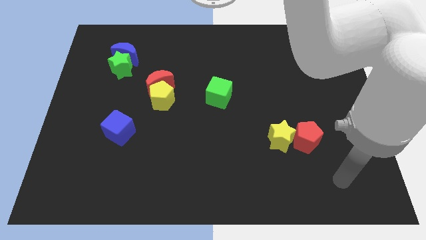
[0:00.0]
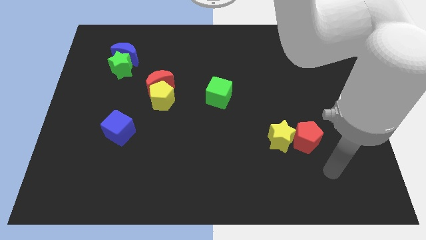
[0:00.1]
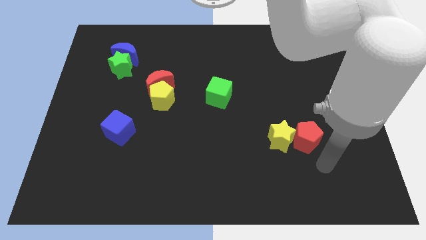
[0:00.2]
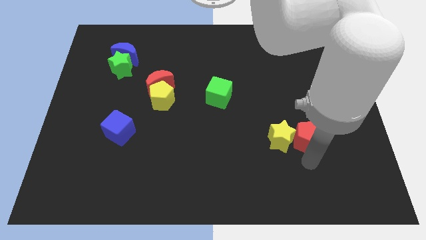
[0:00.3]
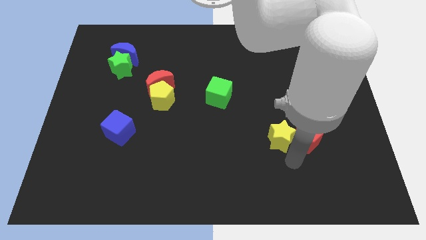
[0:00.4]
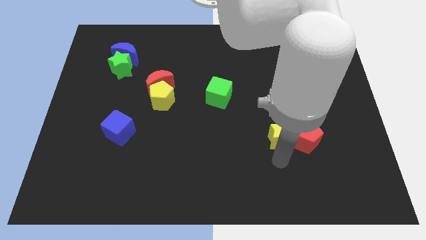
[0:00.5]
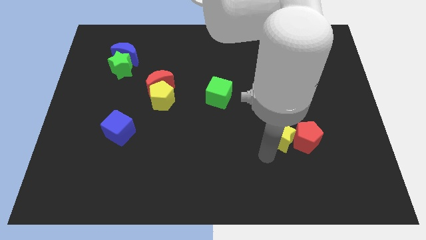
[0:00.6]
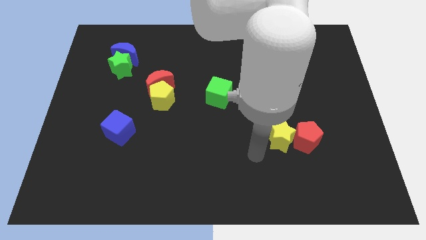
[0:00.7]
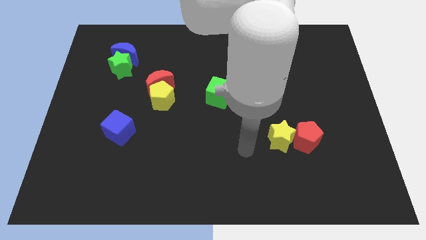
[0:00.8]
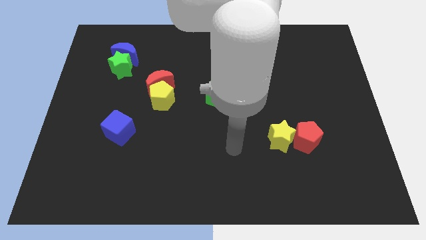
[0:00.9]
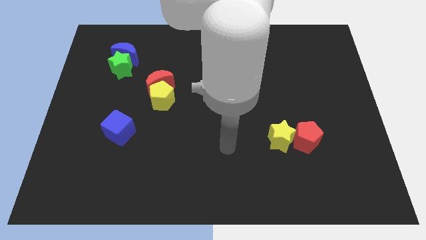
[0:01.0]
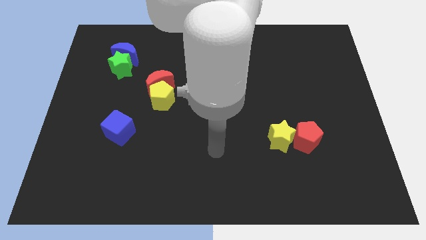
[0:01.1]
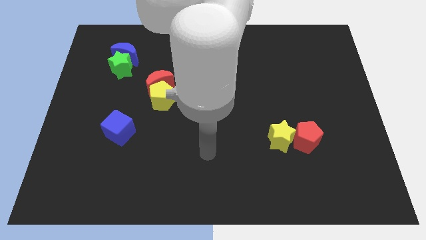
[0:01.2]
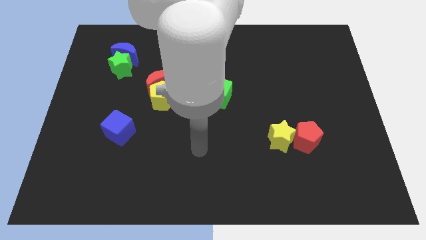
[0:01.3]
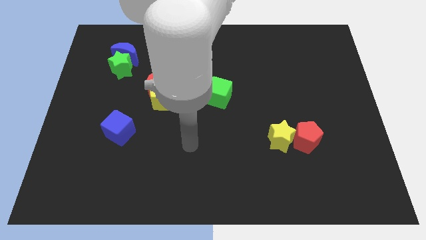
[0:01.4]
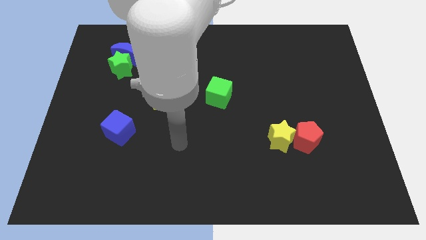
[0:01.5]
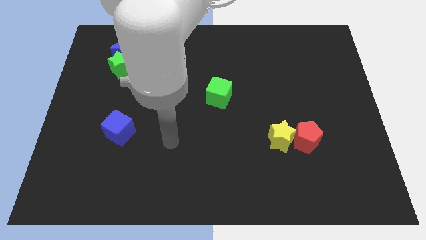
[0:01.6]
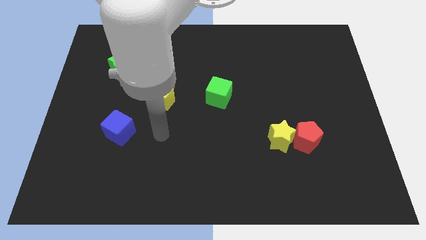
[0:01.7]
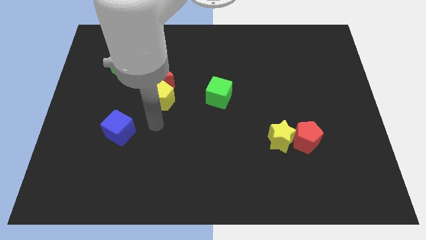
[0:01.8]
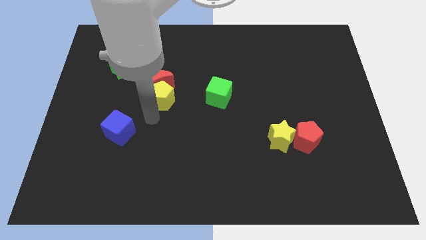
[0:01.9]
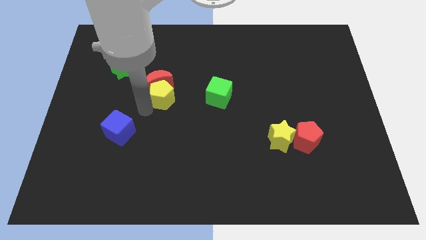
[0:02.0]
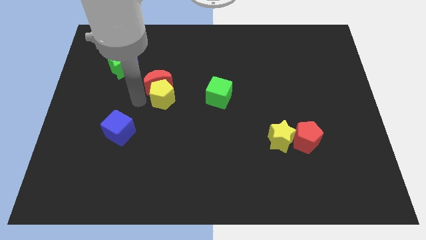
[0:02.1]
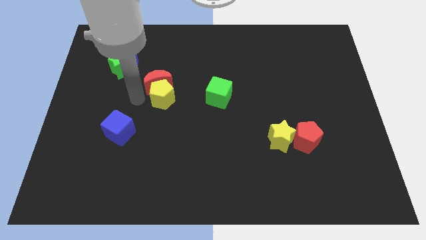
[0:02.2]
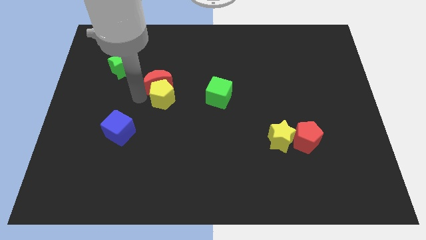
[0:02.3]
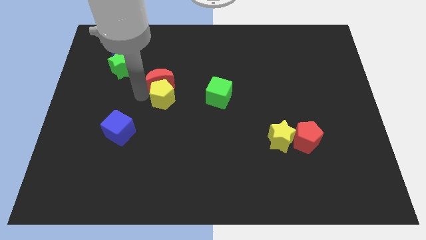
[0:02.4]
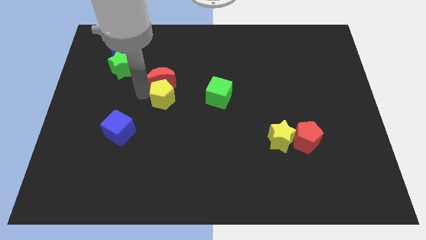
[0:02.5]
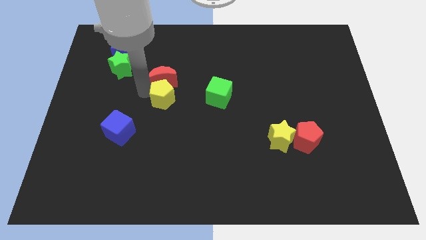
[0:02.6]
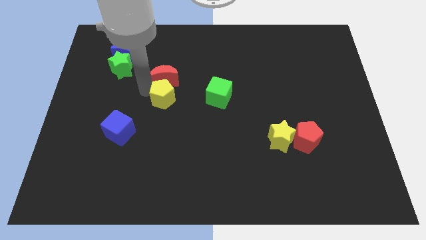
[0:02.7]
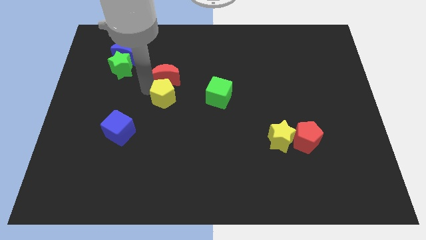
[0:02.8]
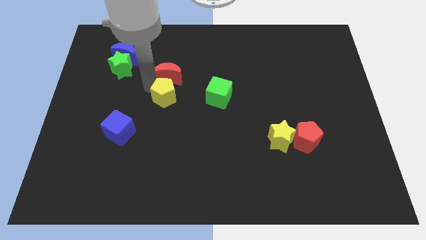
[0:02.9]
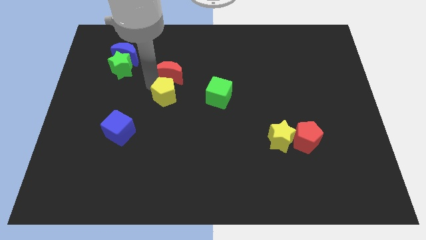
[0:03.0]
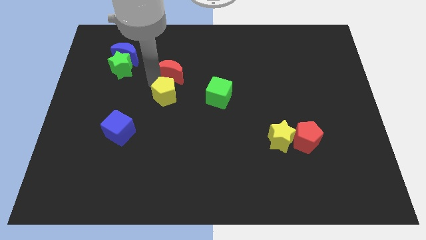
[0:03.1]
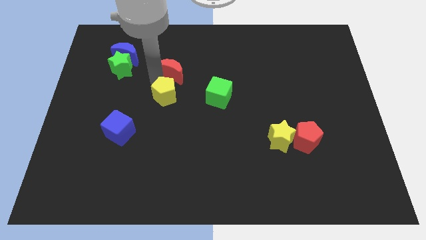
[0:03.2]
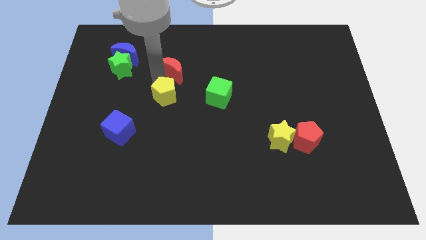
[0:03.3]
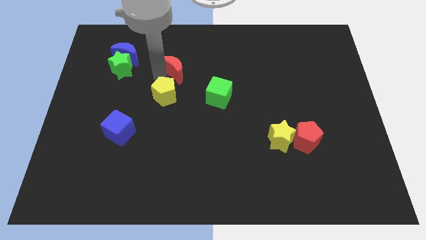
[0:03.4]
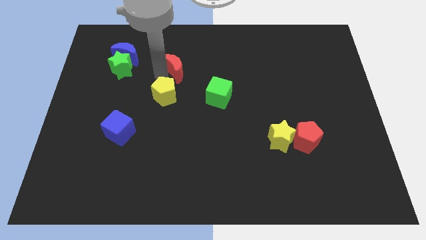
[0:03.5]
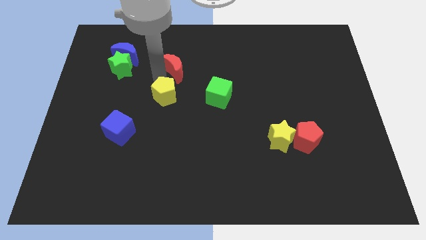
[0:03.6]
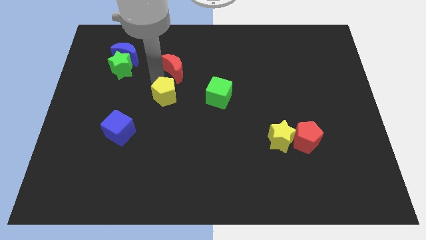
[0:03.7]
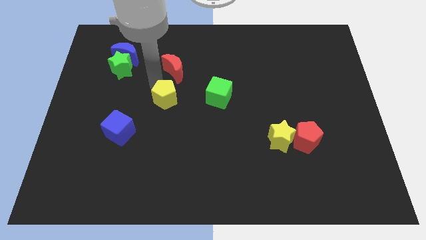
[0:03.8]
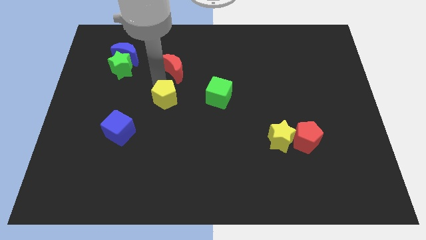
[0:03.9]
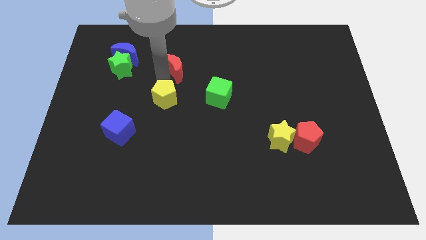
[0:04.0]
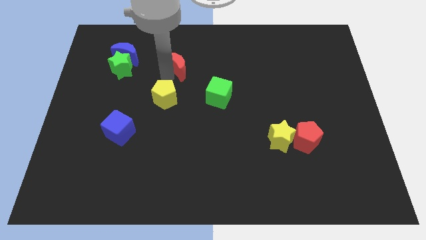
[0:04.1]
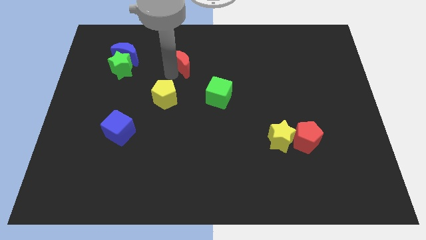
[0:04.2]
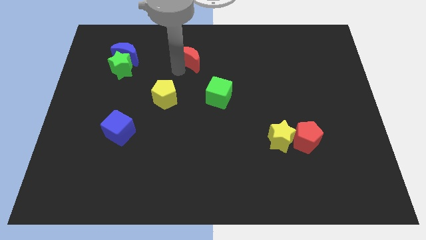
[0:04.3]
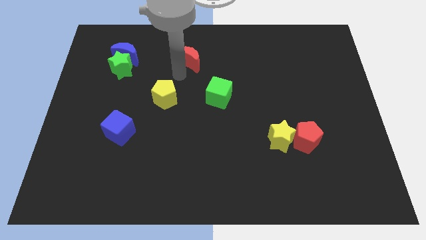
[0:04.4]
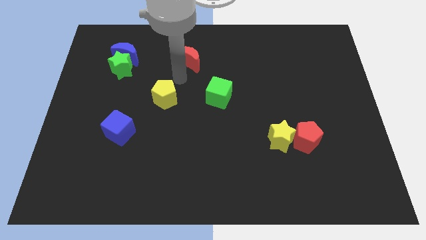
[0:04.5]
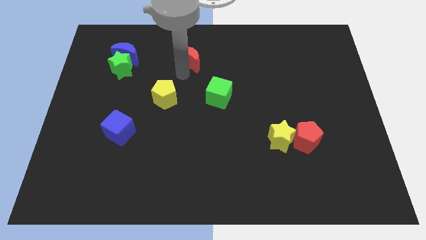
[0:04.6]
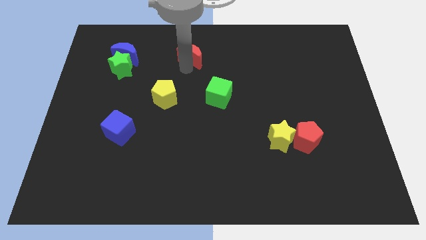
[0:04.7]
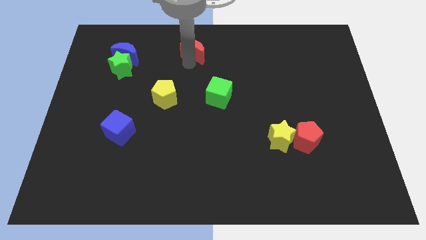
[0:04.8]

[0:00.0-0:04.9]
put the red moon to the top side

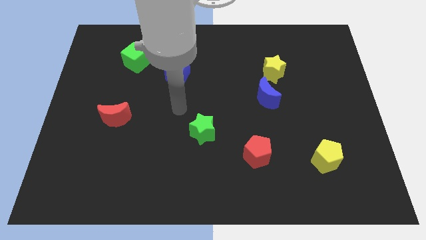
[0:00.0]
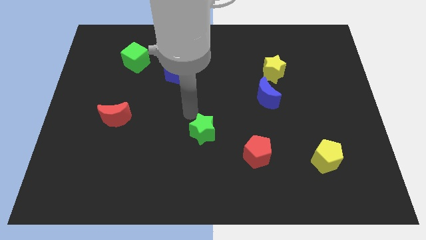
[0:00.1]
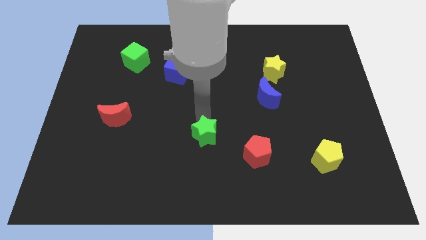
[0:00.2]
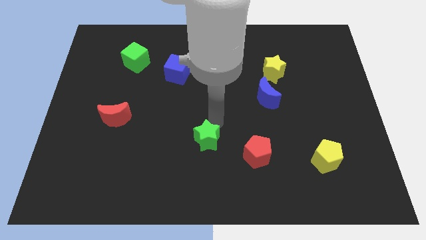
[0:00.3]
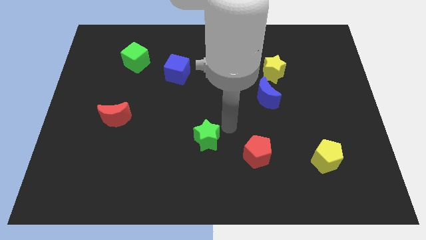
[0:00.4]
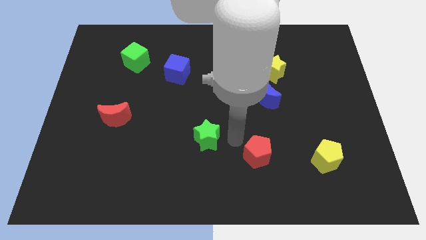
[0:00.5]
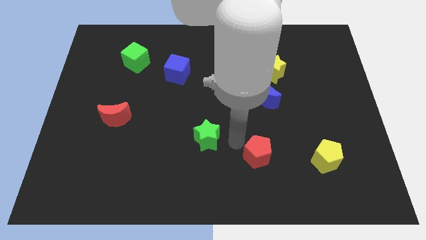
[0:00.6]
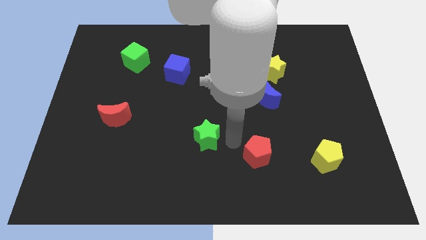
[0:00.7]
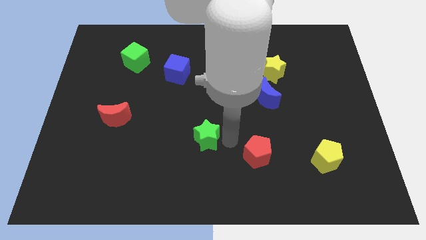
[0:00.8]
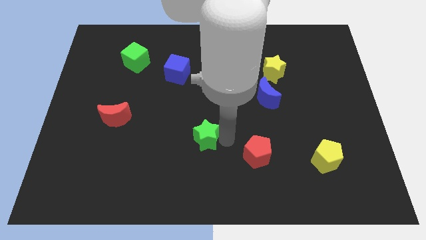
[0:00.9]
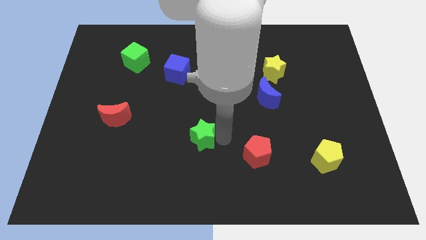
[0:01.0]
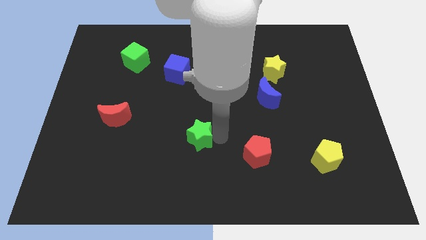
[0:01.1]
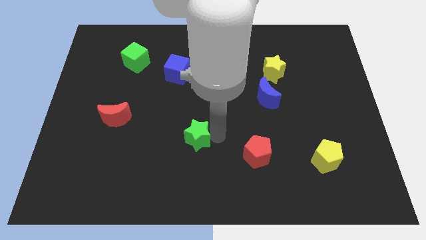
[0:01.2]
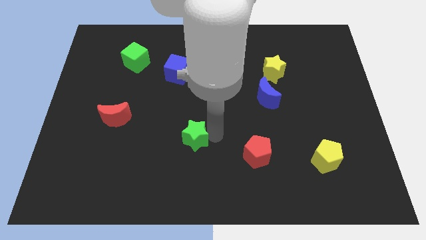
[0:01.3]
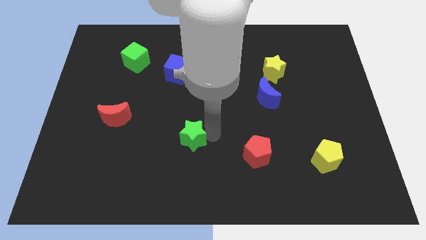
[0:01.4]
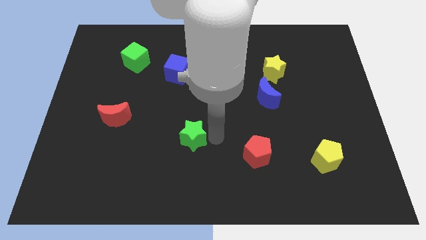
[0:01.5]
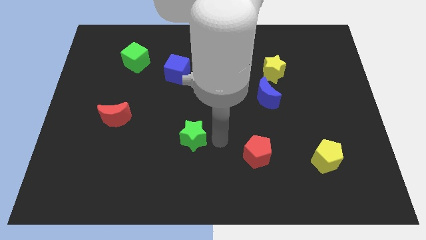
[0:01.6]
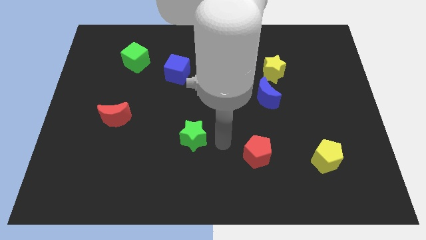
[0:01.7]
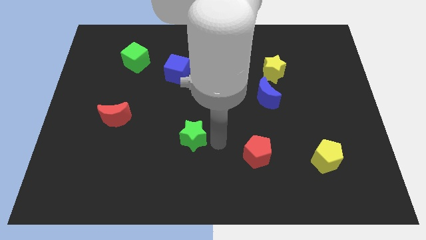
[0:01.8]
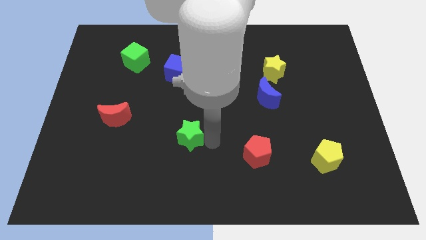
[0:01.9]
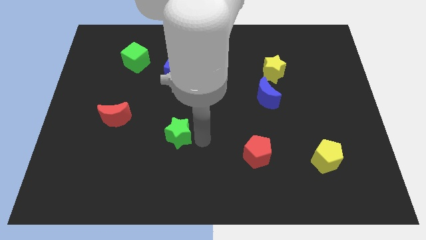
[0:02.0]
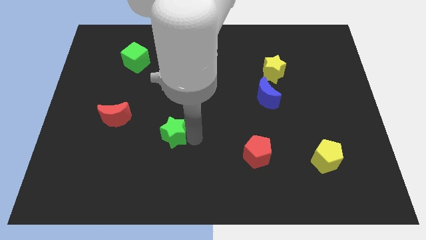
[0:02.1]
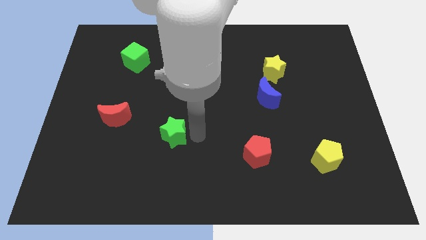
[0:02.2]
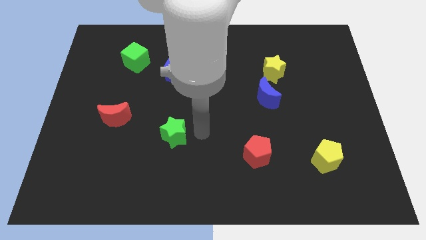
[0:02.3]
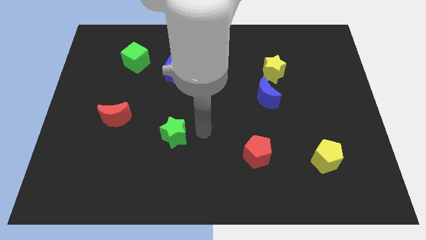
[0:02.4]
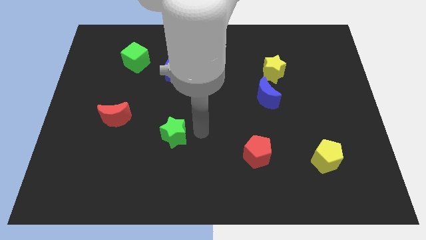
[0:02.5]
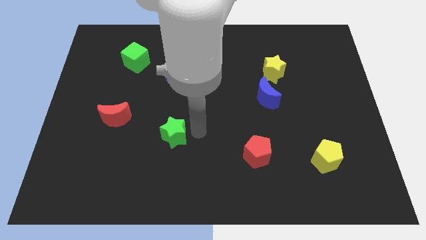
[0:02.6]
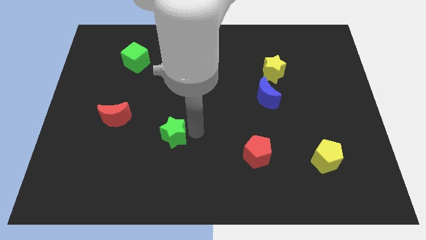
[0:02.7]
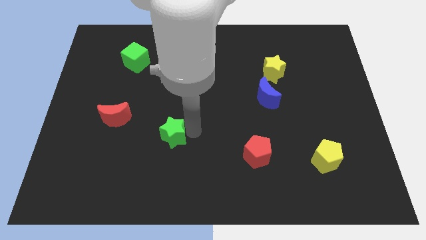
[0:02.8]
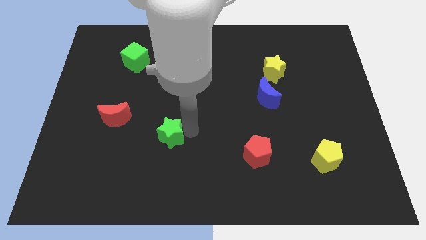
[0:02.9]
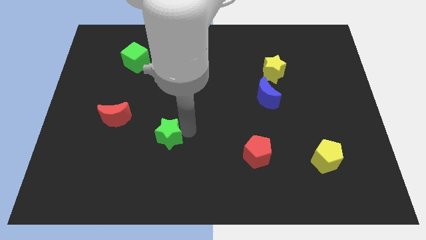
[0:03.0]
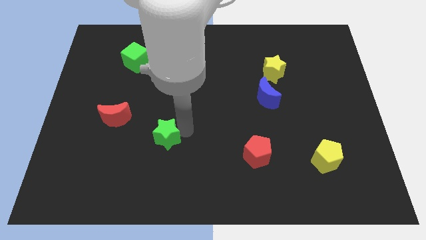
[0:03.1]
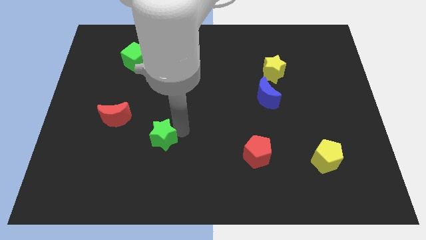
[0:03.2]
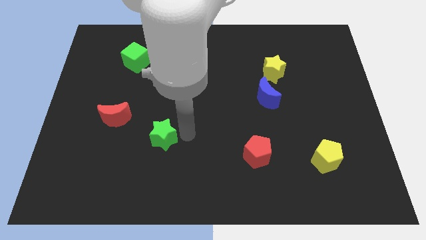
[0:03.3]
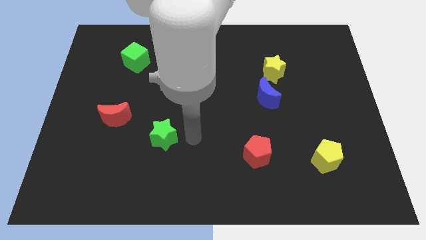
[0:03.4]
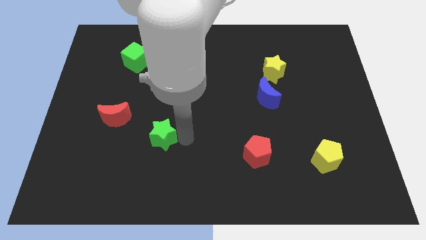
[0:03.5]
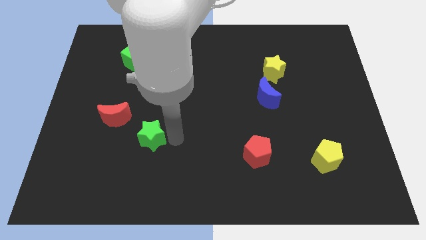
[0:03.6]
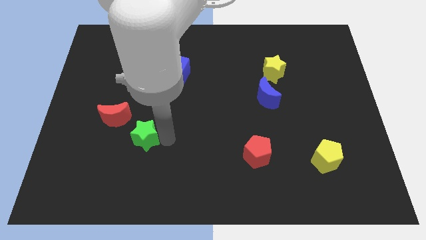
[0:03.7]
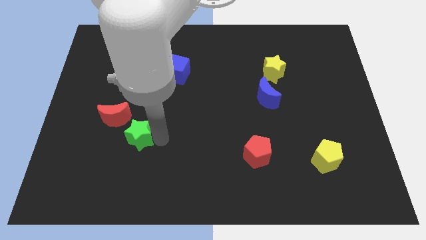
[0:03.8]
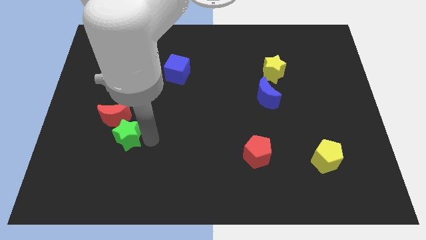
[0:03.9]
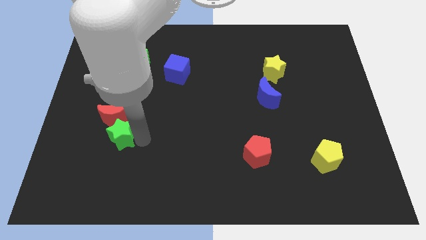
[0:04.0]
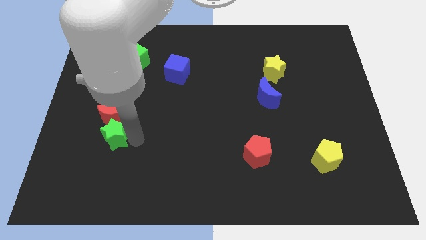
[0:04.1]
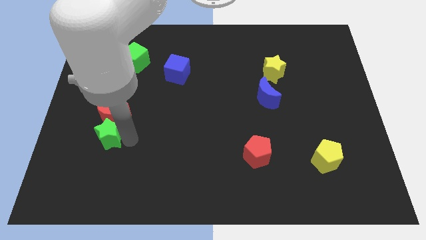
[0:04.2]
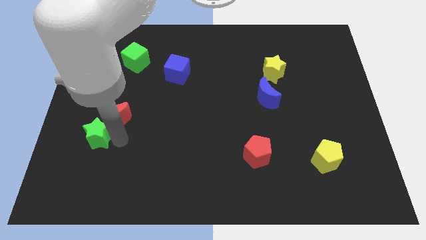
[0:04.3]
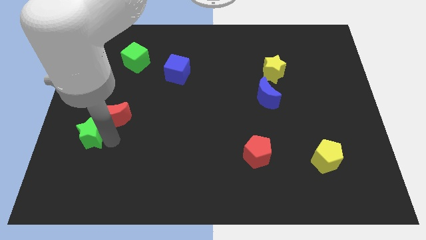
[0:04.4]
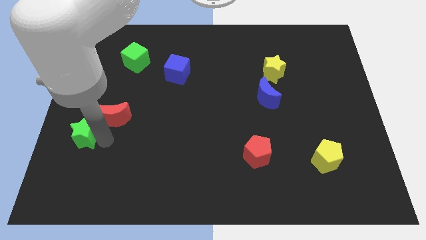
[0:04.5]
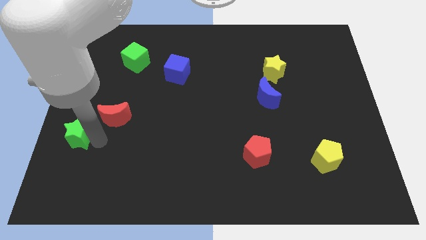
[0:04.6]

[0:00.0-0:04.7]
move the green star to the left side of the board
